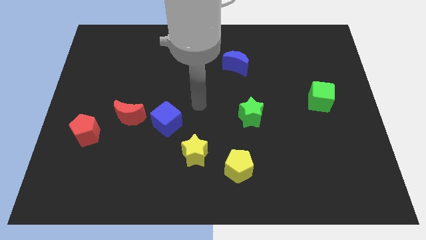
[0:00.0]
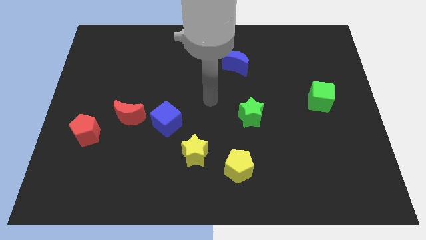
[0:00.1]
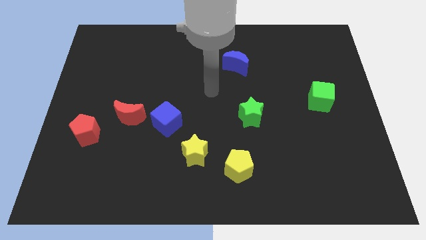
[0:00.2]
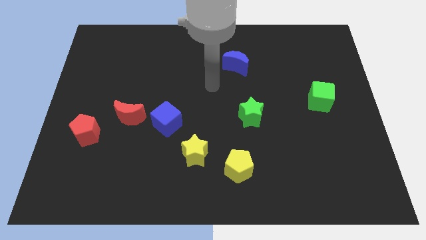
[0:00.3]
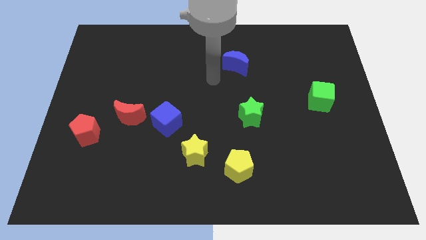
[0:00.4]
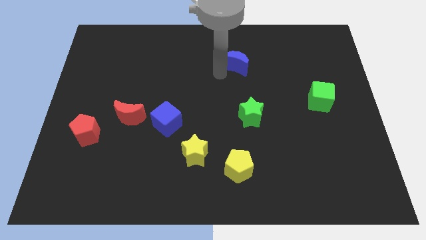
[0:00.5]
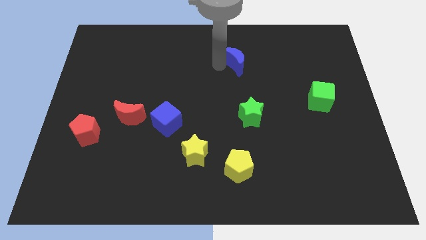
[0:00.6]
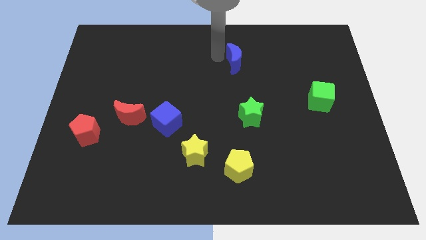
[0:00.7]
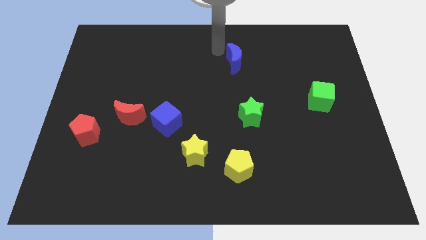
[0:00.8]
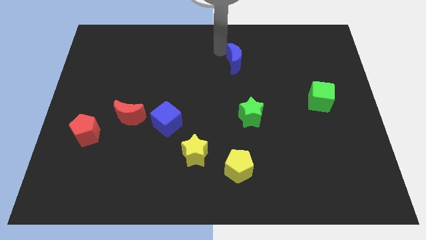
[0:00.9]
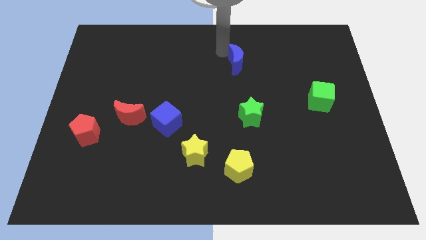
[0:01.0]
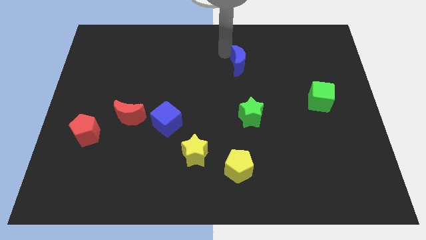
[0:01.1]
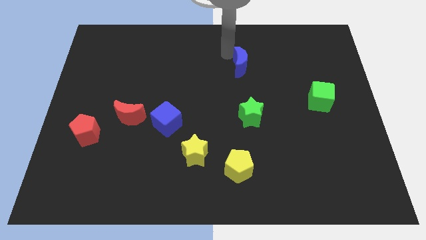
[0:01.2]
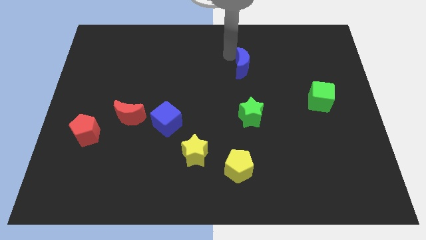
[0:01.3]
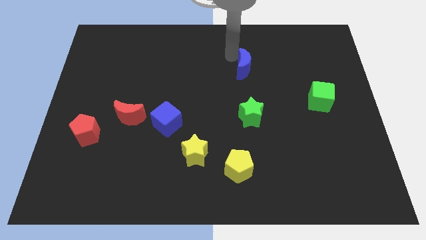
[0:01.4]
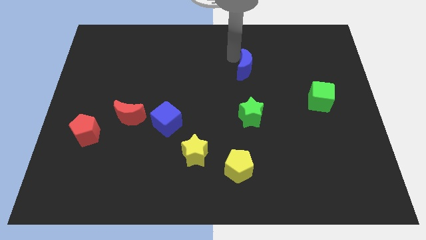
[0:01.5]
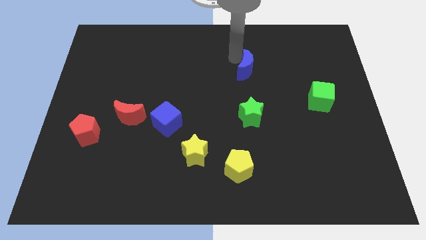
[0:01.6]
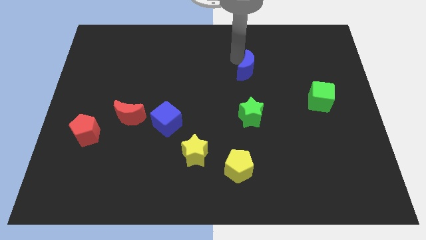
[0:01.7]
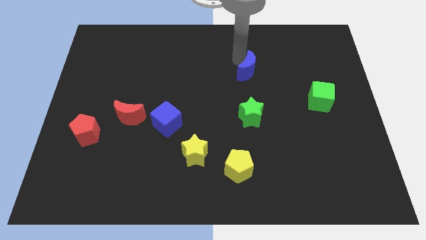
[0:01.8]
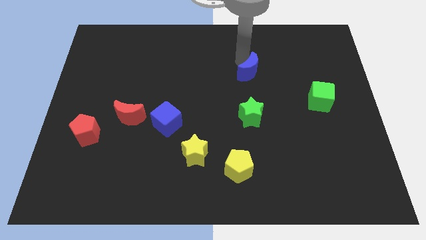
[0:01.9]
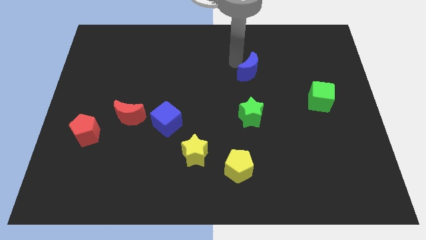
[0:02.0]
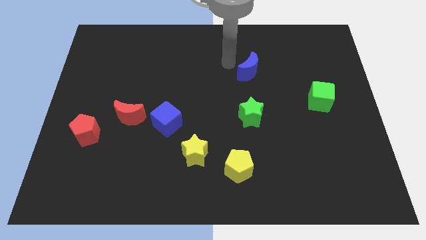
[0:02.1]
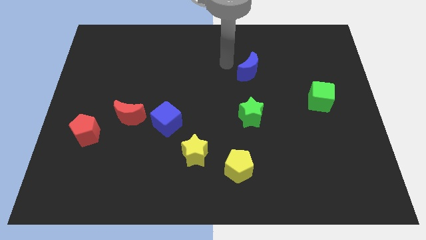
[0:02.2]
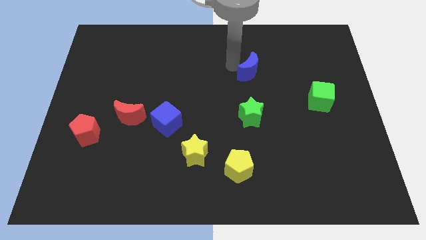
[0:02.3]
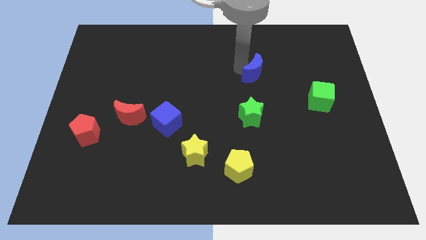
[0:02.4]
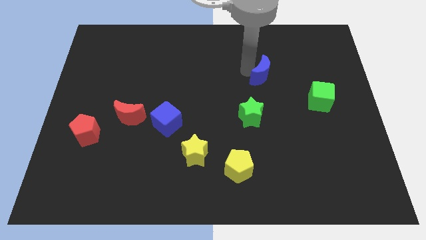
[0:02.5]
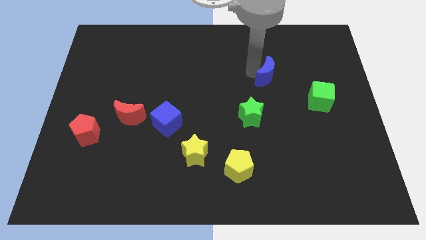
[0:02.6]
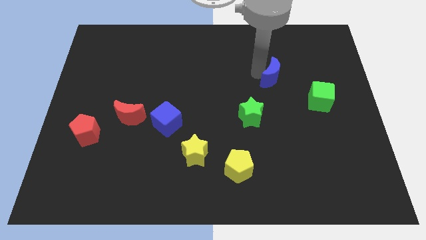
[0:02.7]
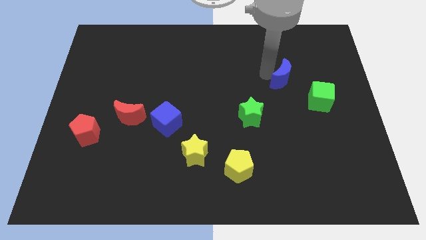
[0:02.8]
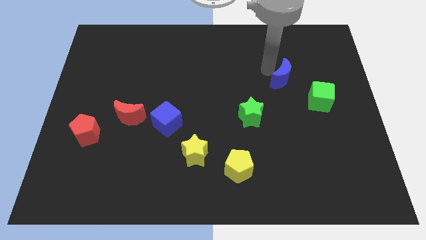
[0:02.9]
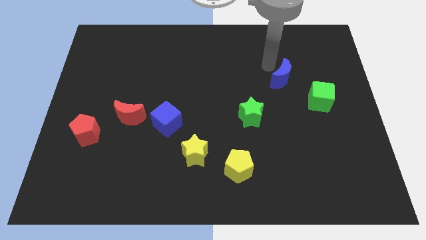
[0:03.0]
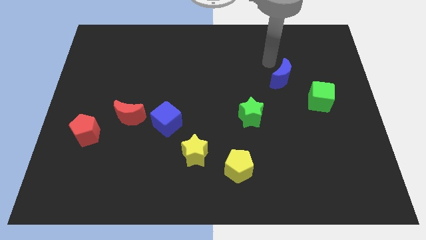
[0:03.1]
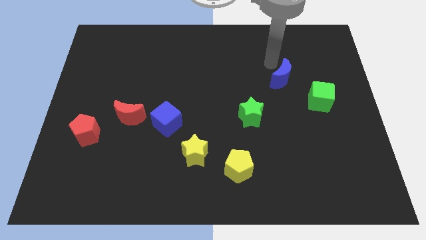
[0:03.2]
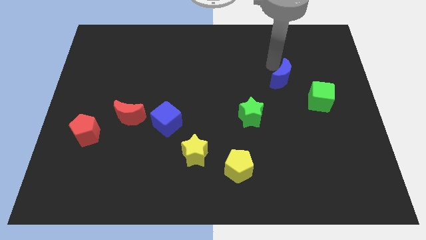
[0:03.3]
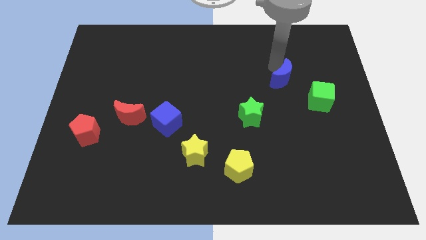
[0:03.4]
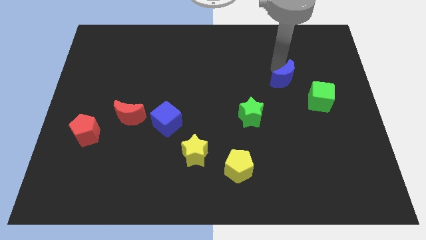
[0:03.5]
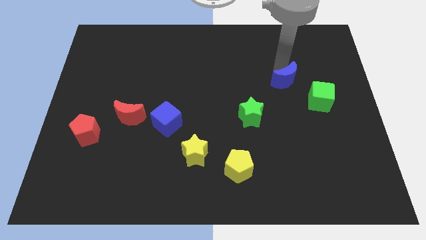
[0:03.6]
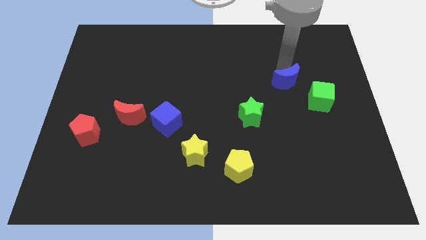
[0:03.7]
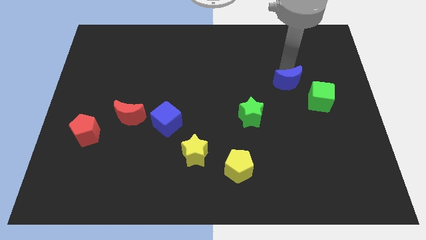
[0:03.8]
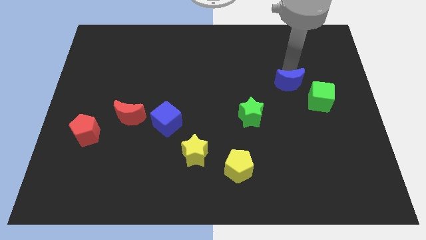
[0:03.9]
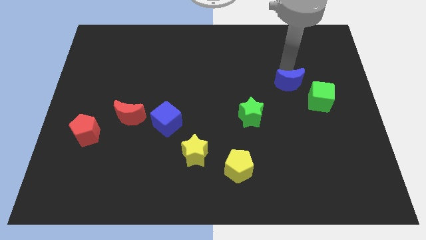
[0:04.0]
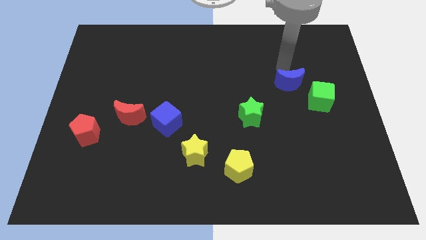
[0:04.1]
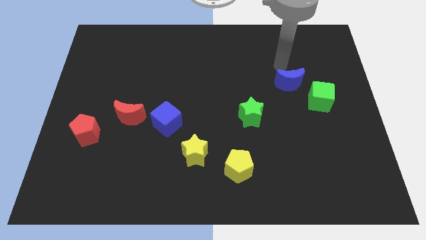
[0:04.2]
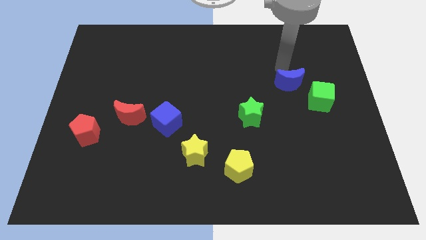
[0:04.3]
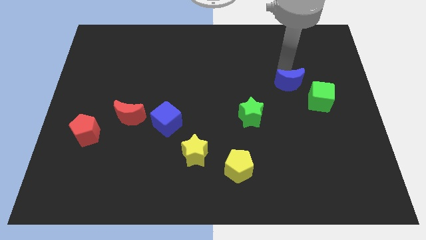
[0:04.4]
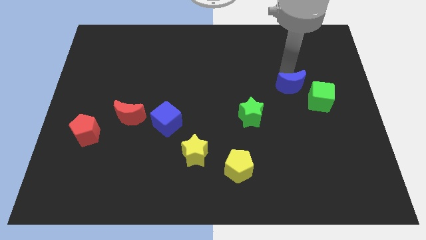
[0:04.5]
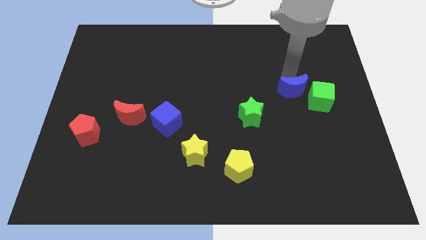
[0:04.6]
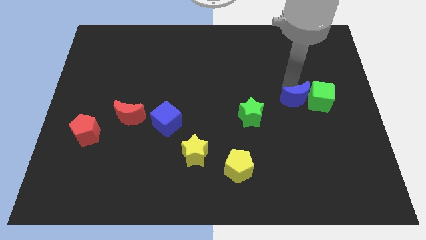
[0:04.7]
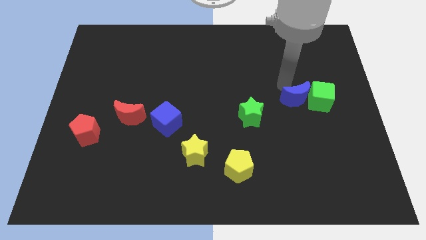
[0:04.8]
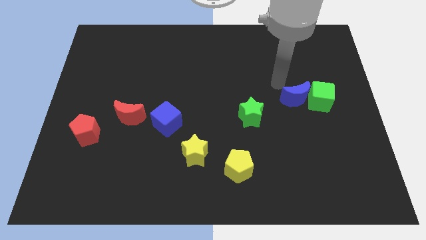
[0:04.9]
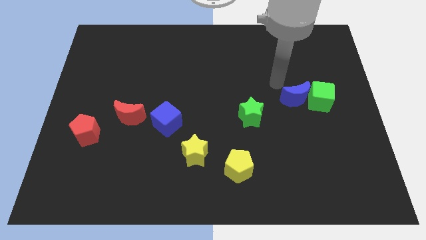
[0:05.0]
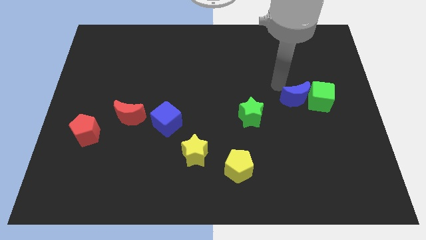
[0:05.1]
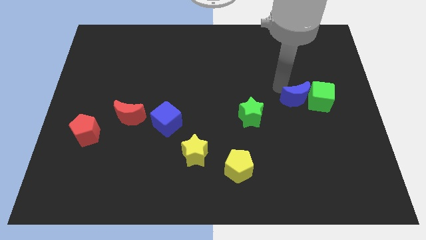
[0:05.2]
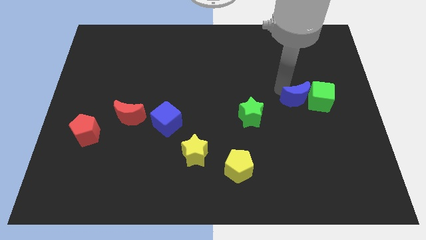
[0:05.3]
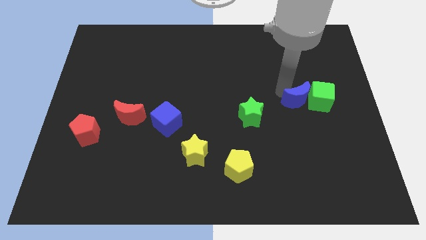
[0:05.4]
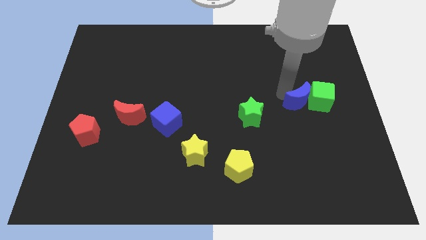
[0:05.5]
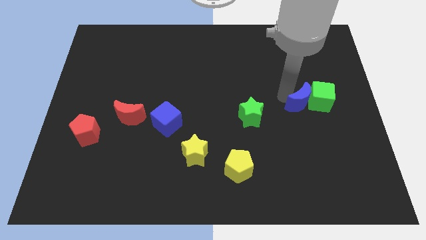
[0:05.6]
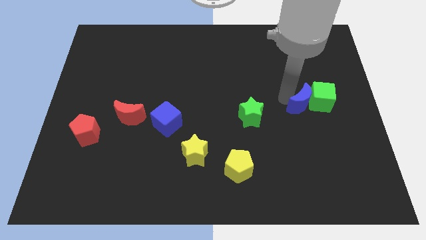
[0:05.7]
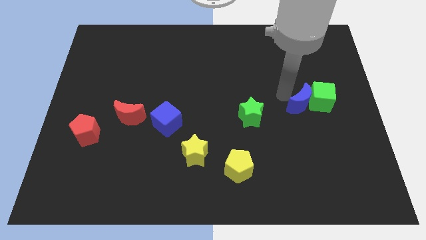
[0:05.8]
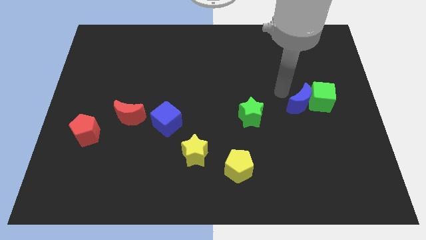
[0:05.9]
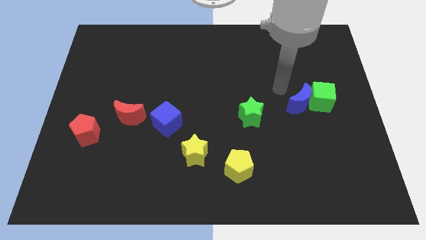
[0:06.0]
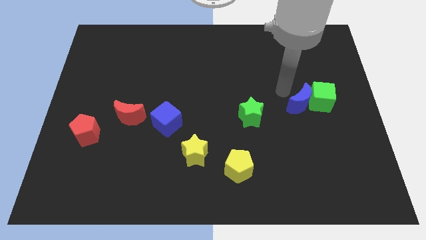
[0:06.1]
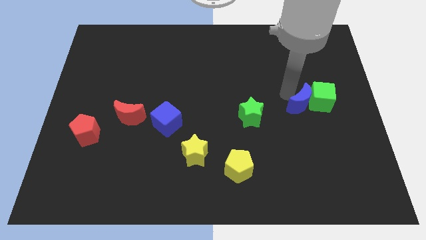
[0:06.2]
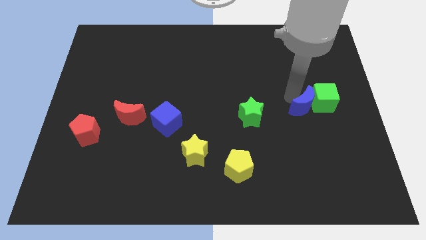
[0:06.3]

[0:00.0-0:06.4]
move the blue moon down and then to the right

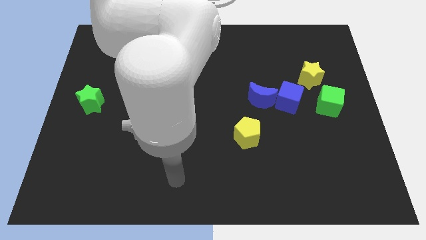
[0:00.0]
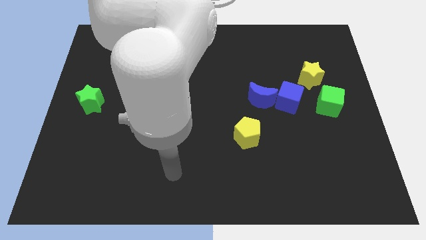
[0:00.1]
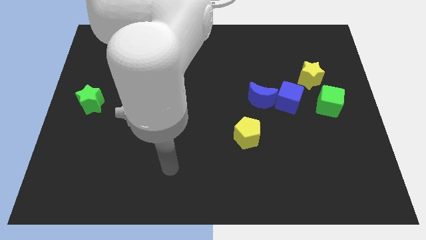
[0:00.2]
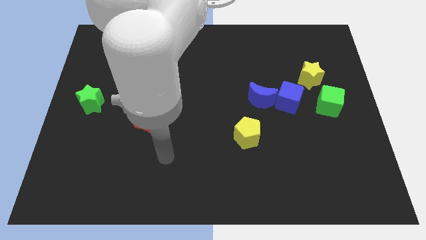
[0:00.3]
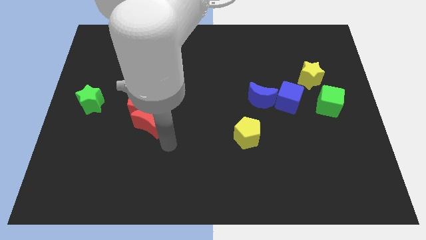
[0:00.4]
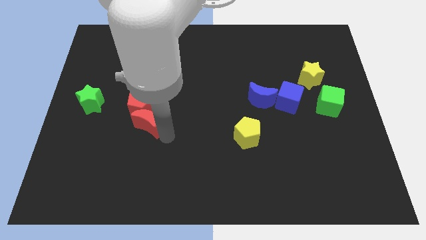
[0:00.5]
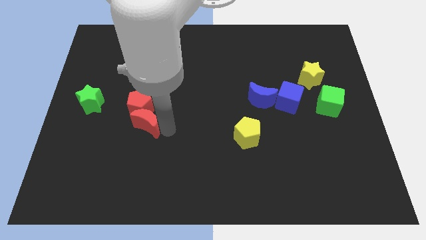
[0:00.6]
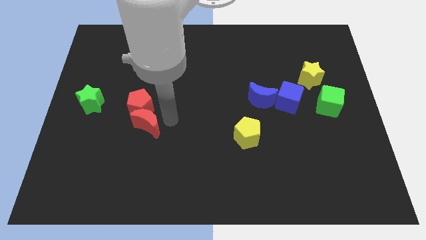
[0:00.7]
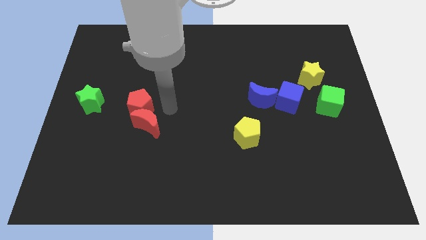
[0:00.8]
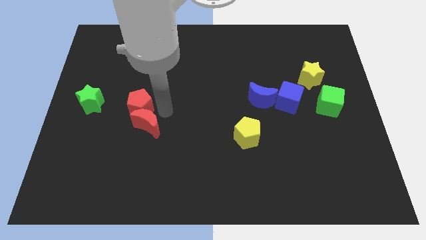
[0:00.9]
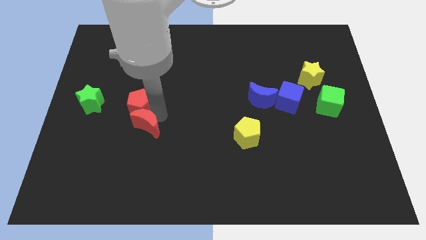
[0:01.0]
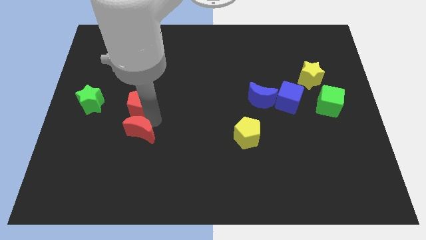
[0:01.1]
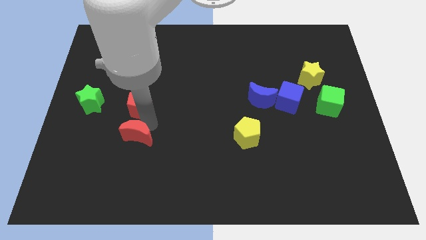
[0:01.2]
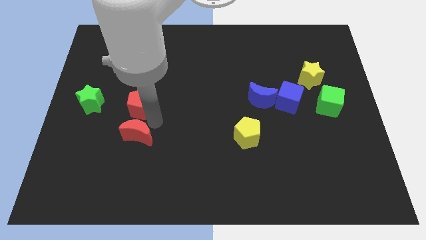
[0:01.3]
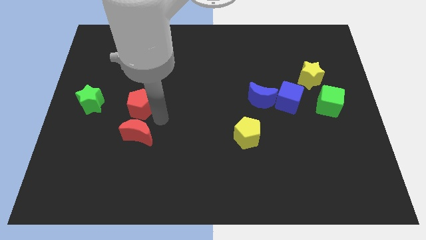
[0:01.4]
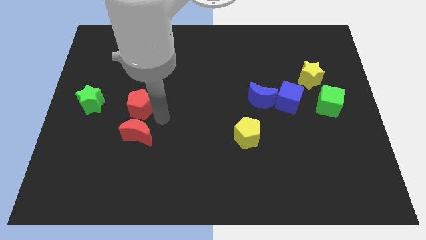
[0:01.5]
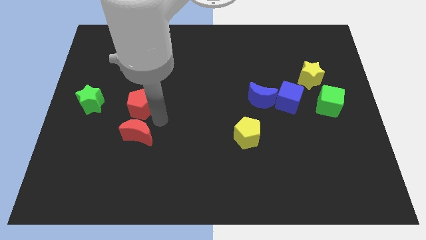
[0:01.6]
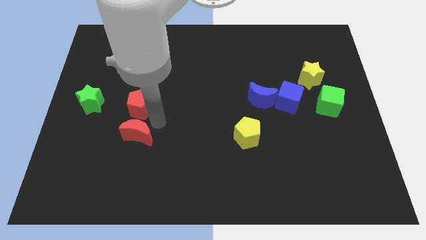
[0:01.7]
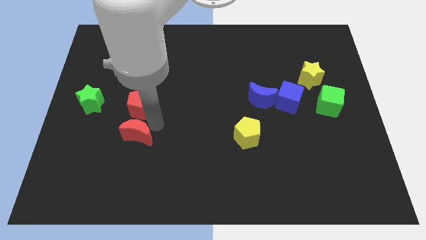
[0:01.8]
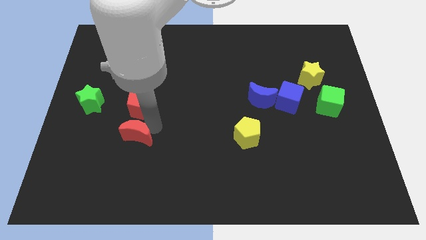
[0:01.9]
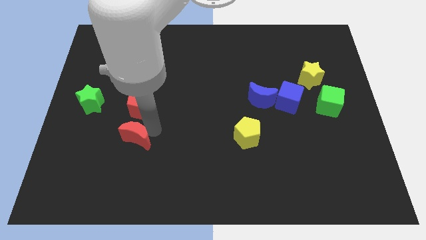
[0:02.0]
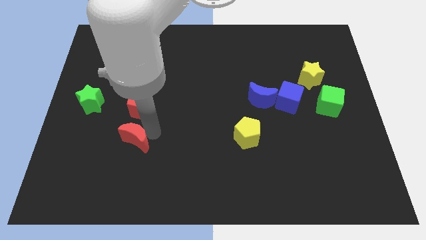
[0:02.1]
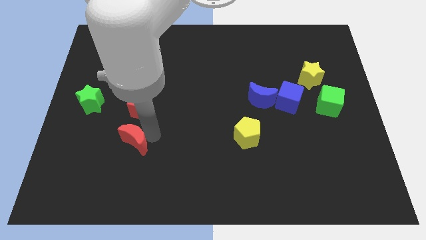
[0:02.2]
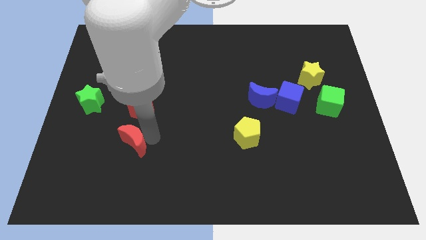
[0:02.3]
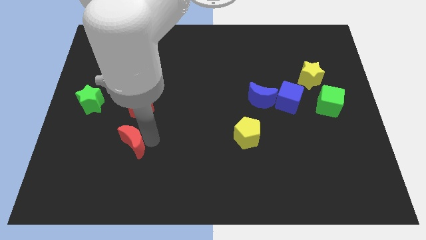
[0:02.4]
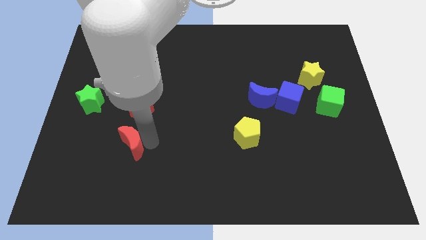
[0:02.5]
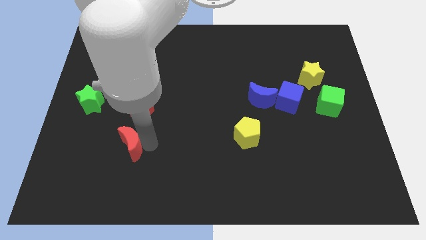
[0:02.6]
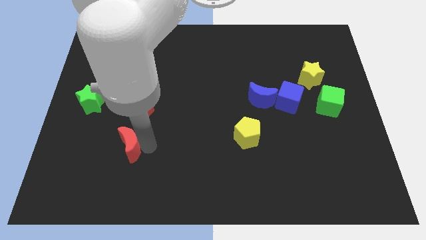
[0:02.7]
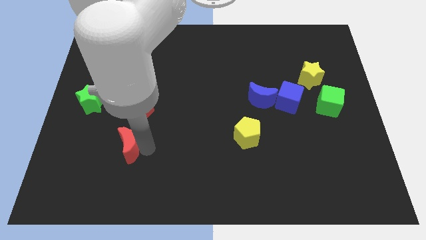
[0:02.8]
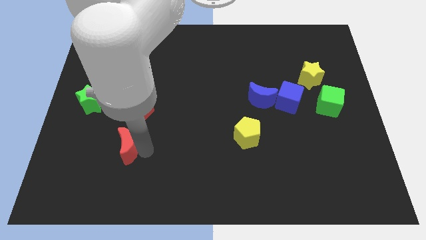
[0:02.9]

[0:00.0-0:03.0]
move the red moon downwards and then left a little bit
